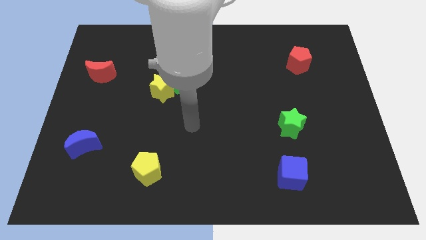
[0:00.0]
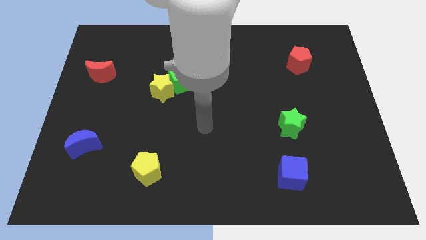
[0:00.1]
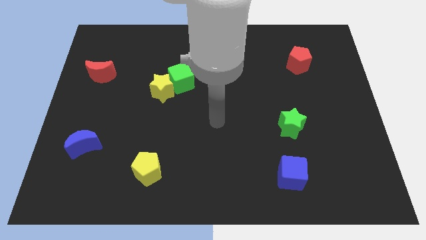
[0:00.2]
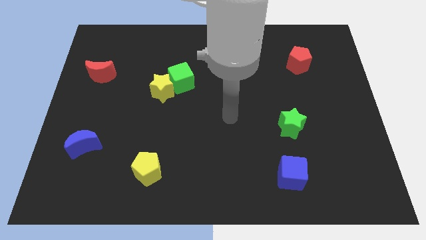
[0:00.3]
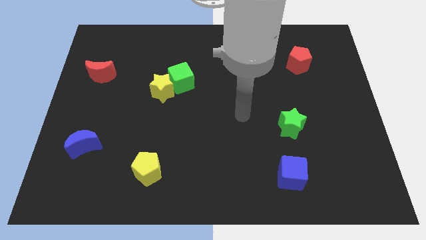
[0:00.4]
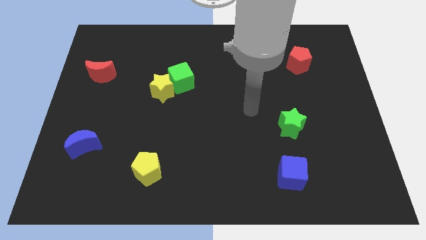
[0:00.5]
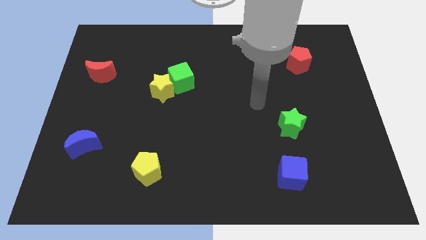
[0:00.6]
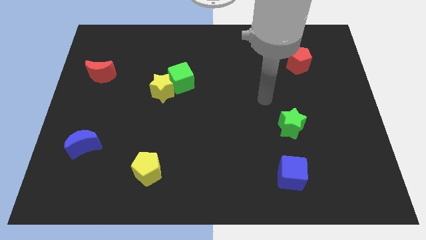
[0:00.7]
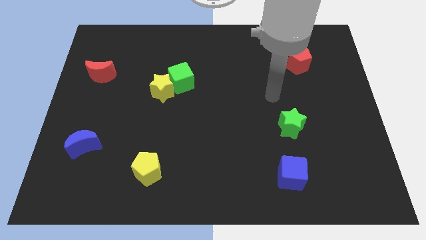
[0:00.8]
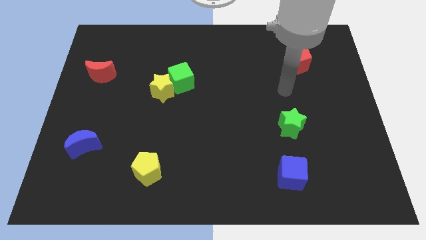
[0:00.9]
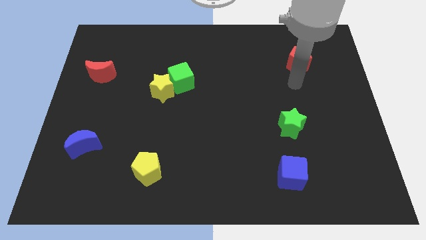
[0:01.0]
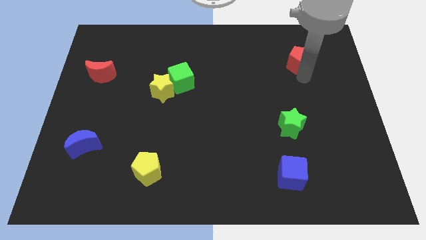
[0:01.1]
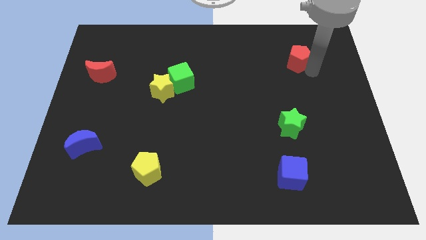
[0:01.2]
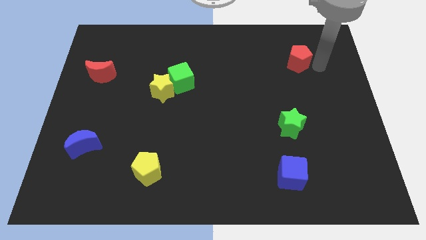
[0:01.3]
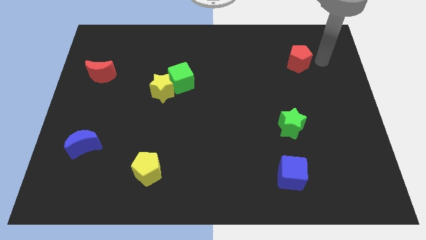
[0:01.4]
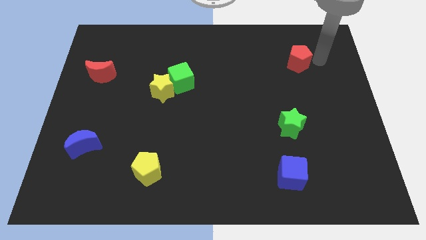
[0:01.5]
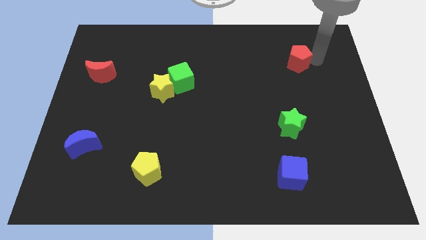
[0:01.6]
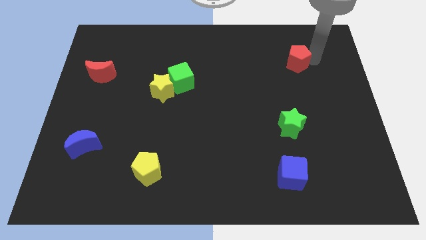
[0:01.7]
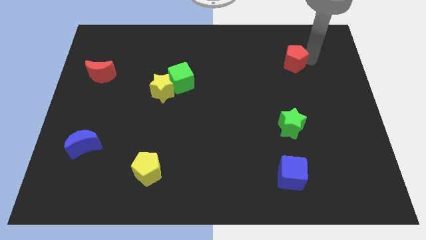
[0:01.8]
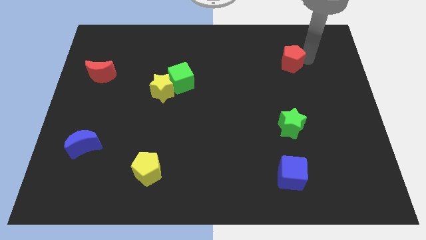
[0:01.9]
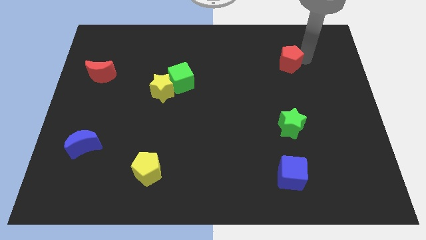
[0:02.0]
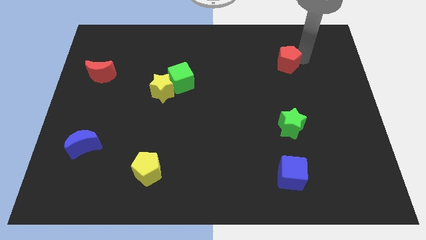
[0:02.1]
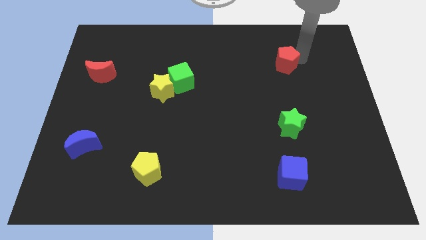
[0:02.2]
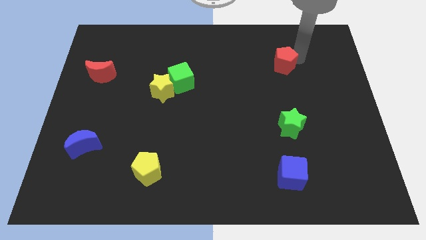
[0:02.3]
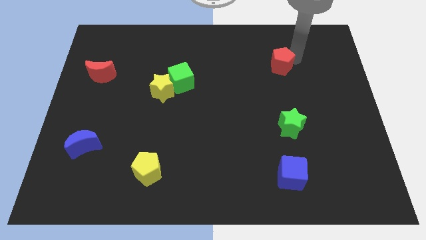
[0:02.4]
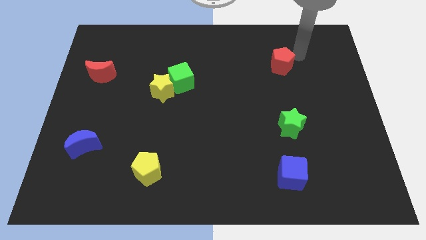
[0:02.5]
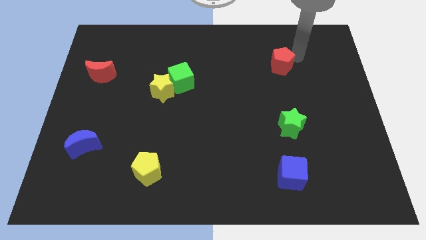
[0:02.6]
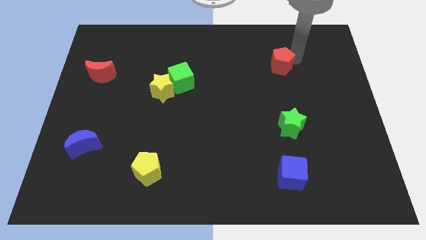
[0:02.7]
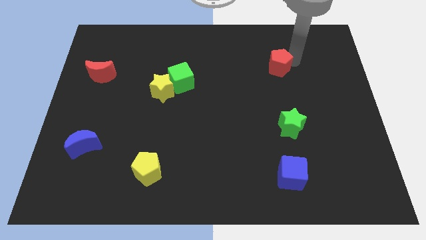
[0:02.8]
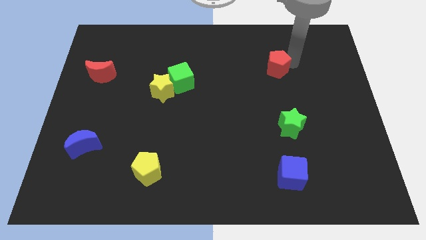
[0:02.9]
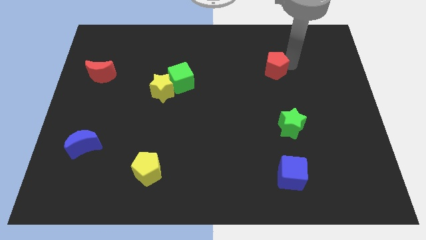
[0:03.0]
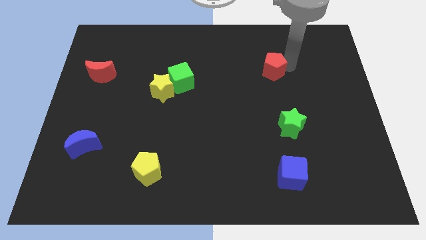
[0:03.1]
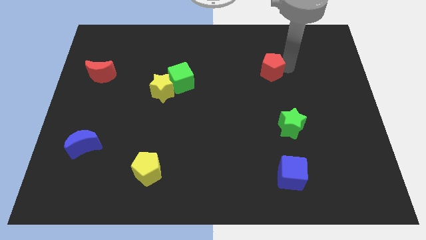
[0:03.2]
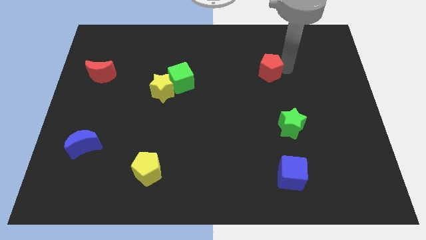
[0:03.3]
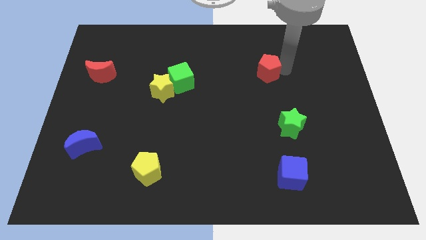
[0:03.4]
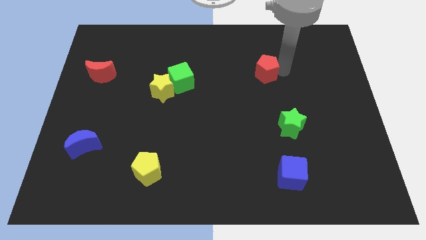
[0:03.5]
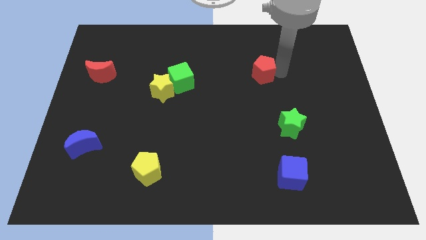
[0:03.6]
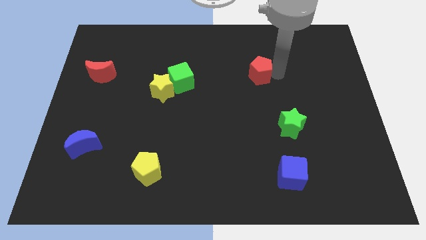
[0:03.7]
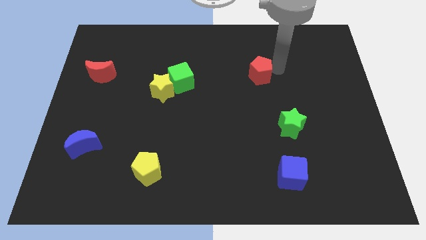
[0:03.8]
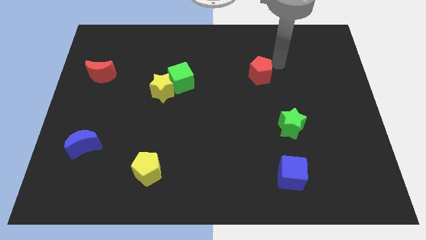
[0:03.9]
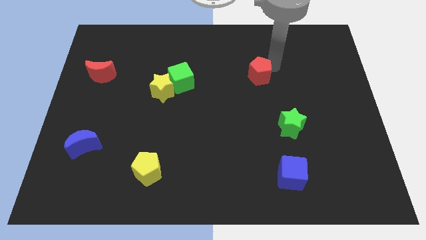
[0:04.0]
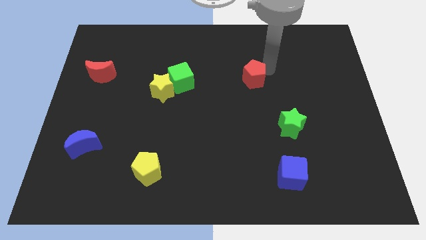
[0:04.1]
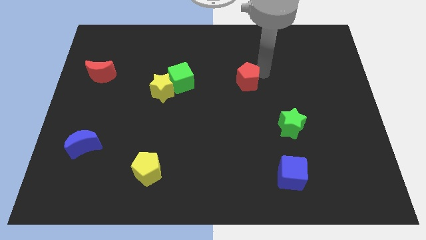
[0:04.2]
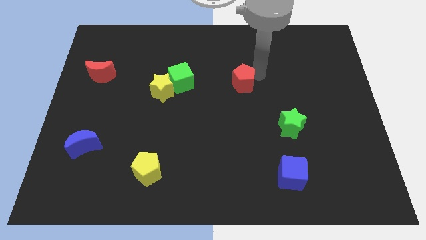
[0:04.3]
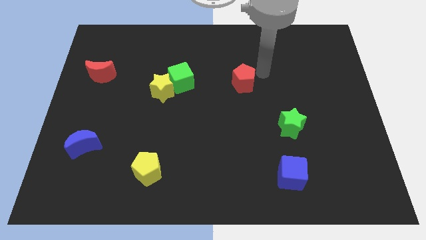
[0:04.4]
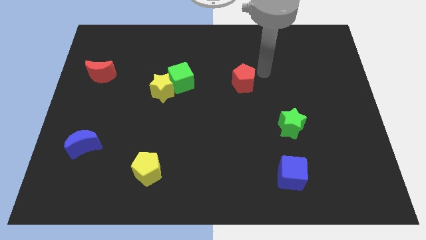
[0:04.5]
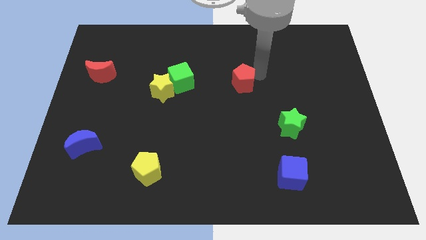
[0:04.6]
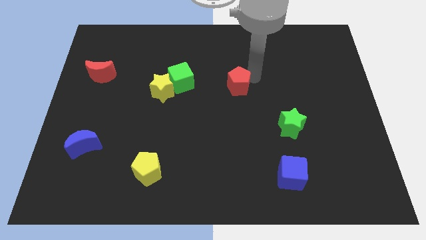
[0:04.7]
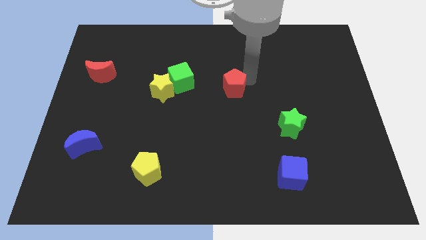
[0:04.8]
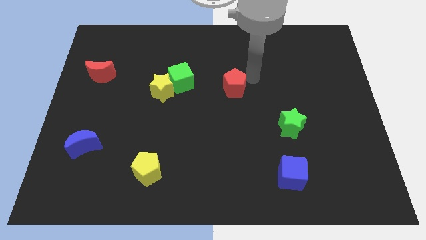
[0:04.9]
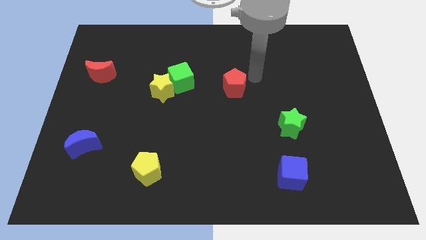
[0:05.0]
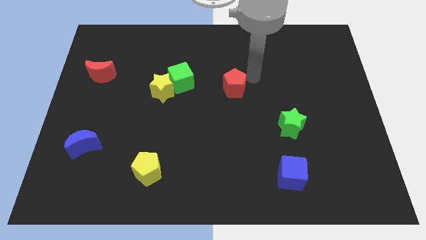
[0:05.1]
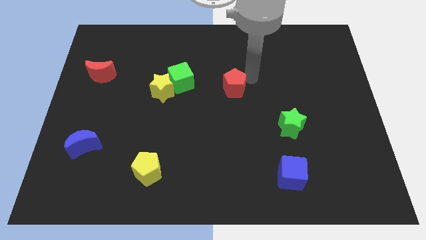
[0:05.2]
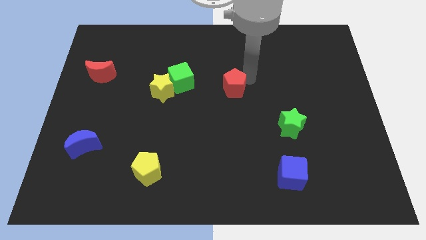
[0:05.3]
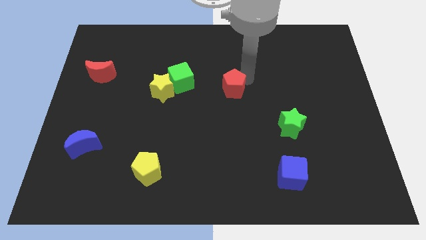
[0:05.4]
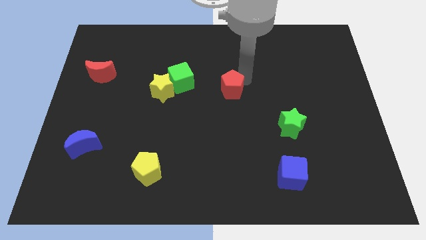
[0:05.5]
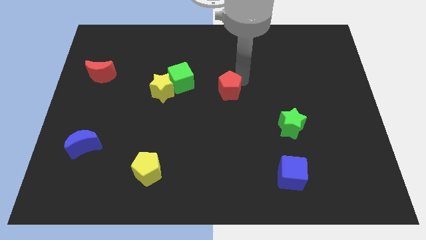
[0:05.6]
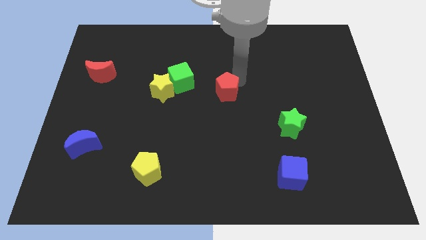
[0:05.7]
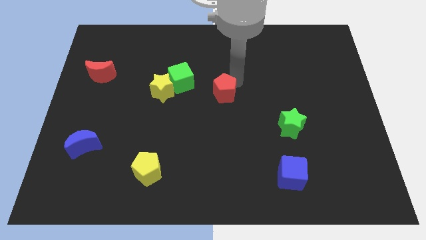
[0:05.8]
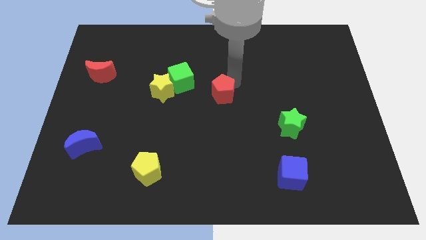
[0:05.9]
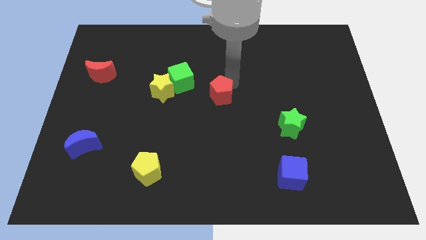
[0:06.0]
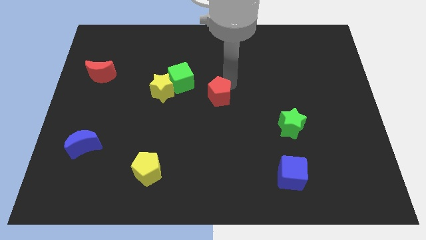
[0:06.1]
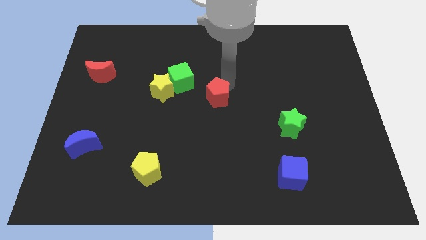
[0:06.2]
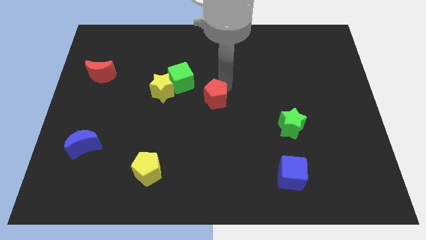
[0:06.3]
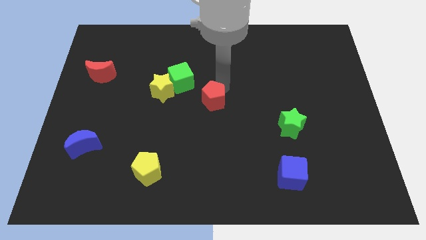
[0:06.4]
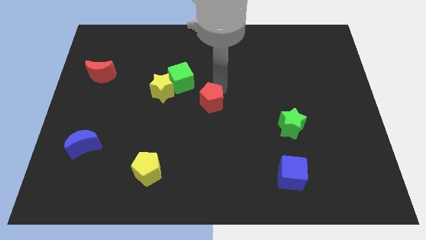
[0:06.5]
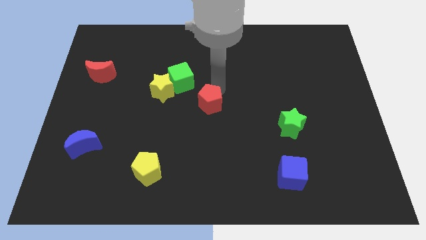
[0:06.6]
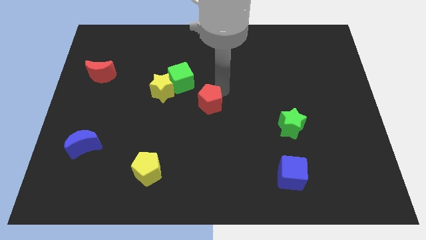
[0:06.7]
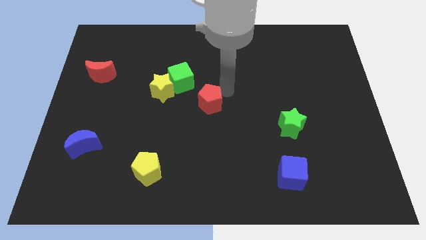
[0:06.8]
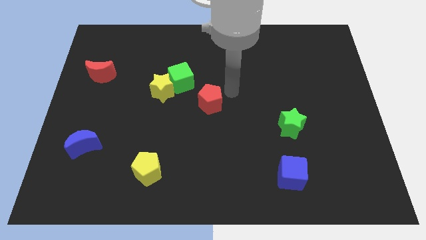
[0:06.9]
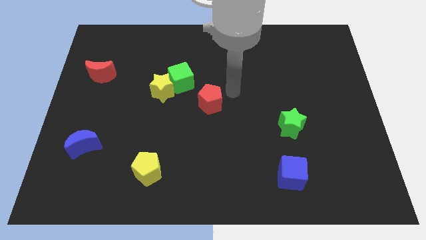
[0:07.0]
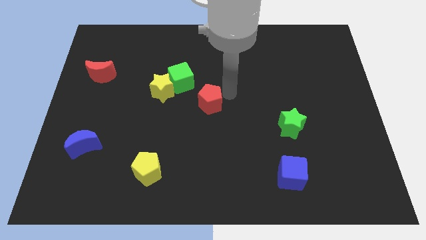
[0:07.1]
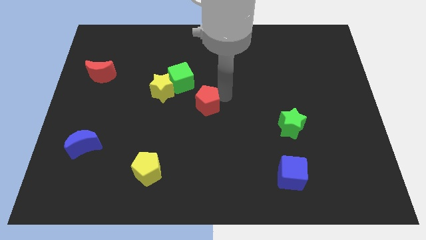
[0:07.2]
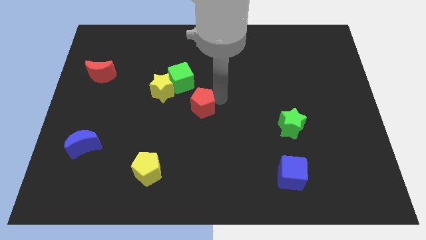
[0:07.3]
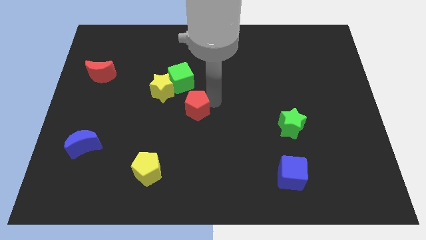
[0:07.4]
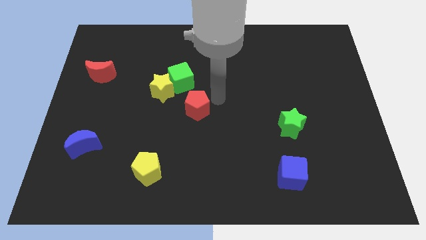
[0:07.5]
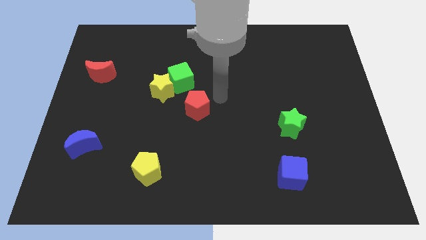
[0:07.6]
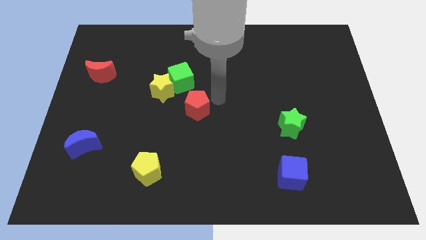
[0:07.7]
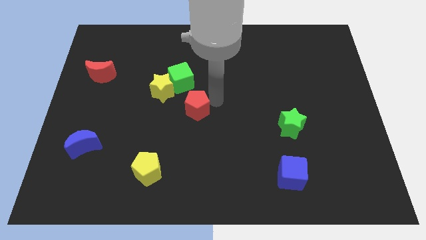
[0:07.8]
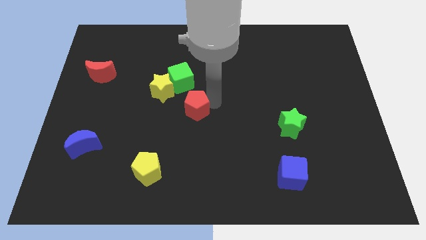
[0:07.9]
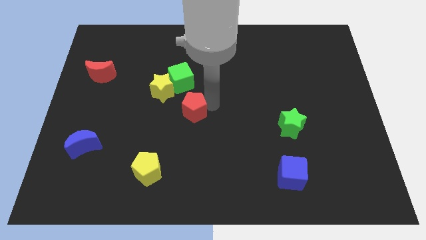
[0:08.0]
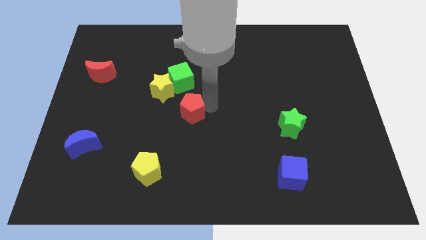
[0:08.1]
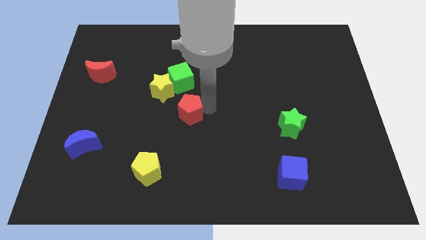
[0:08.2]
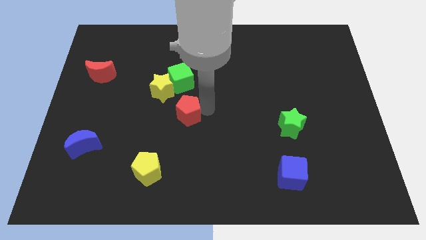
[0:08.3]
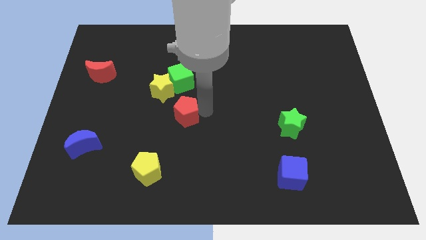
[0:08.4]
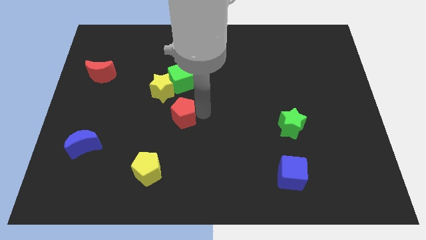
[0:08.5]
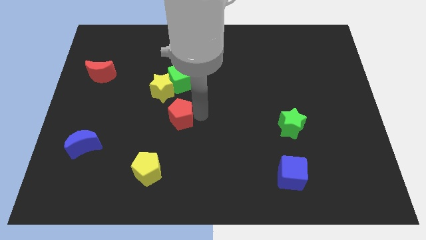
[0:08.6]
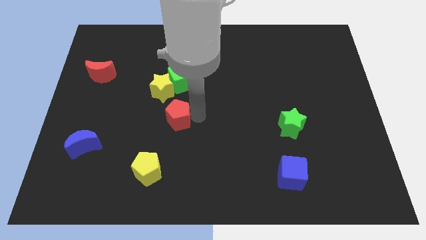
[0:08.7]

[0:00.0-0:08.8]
move the red pentagon below the yellow star
